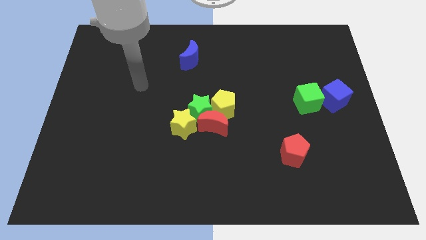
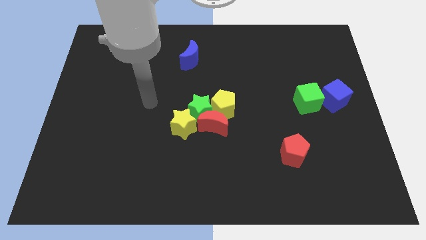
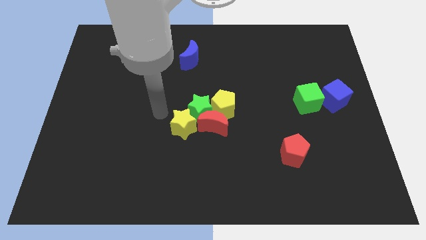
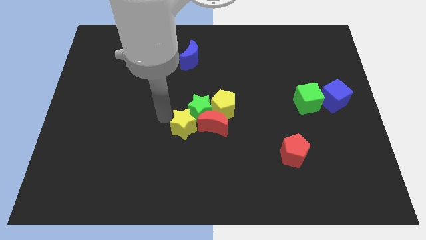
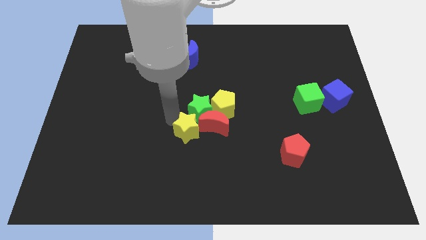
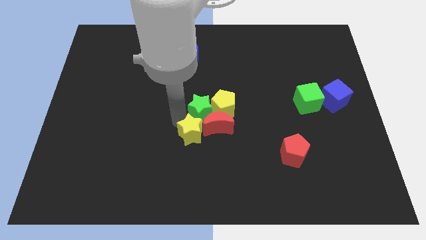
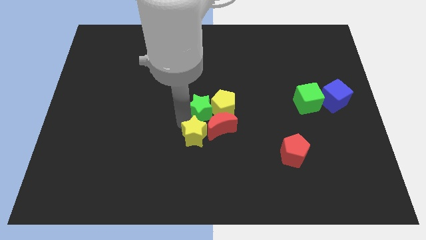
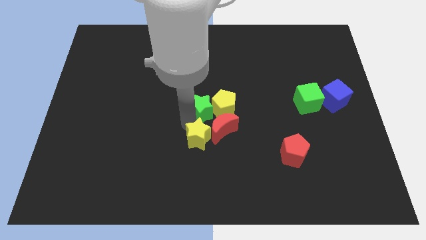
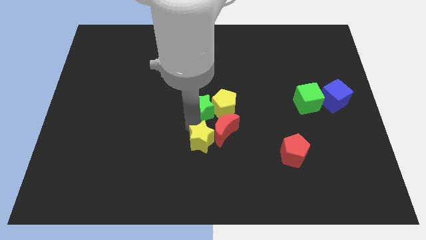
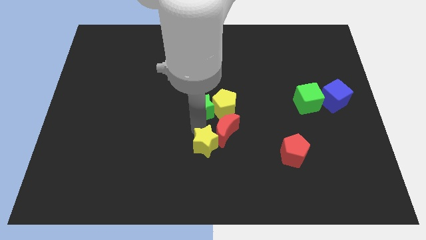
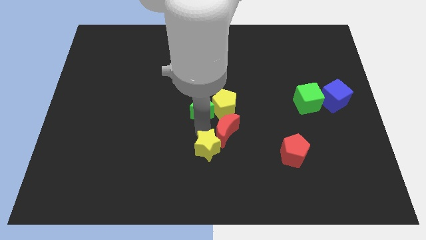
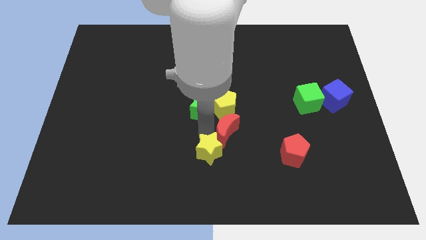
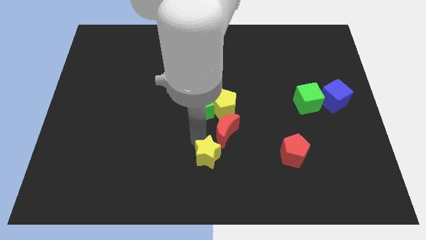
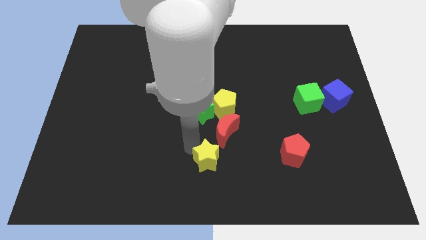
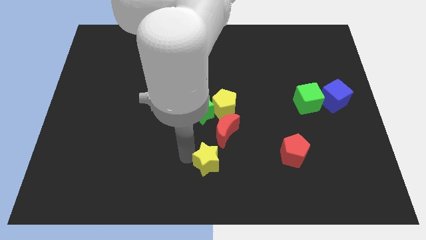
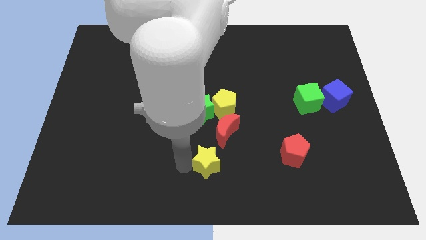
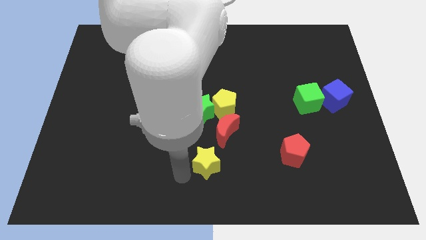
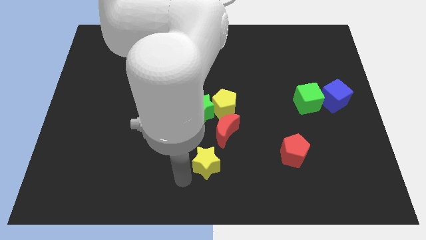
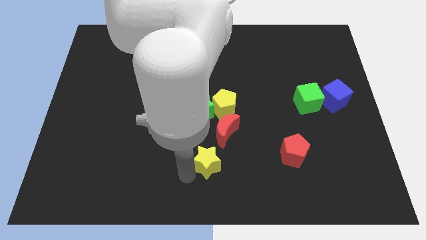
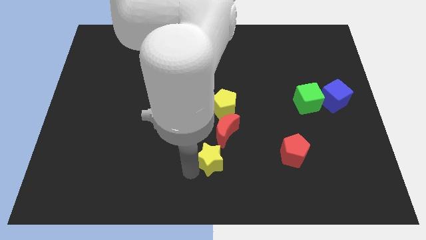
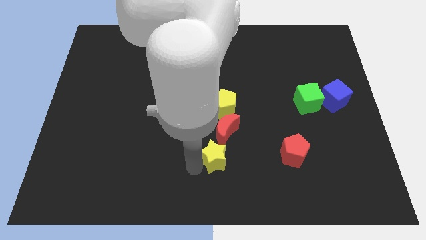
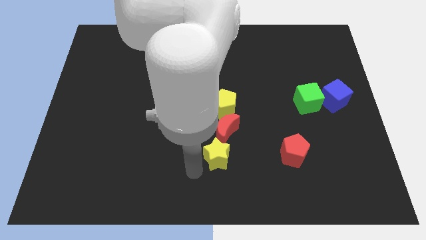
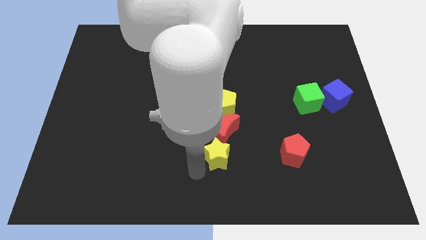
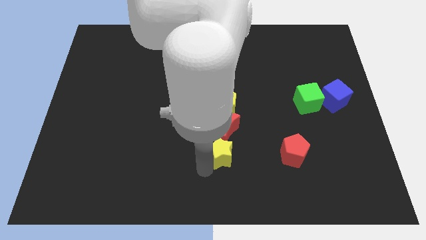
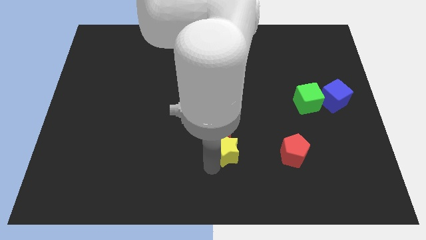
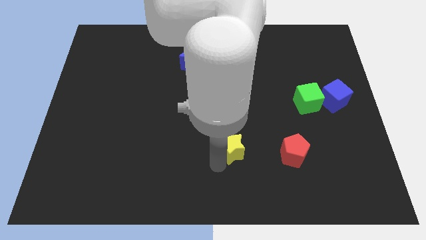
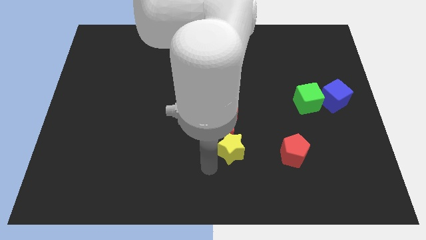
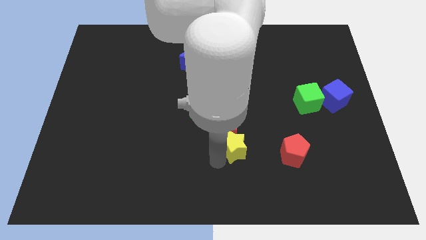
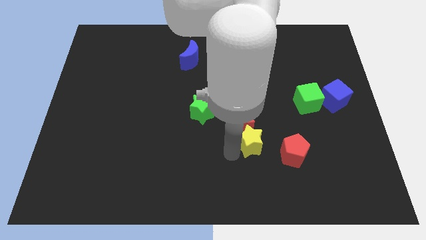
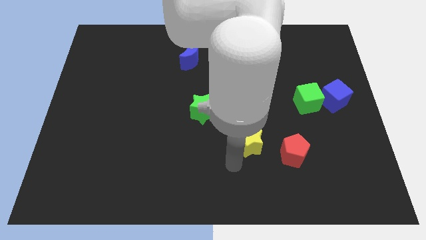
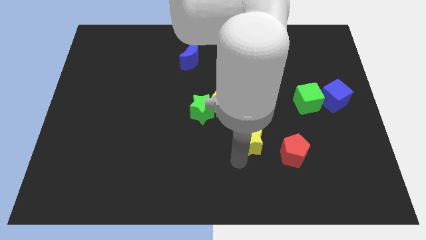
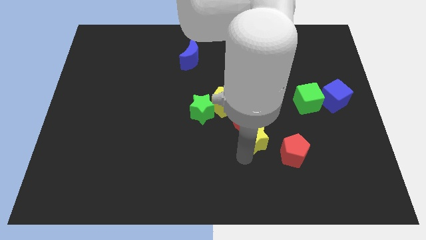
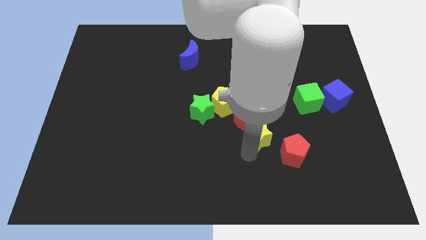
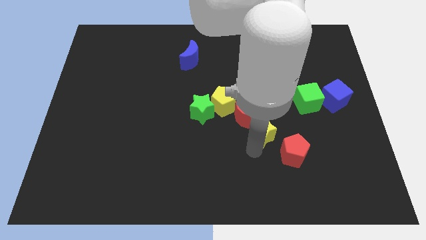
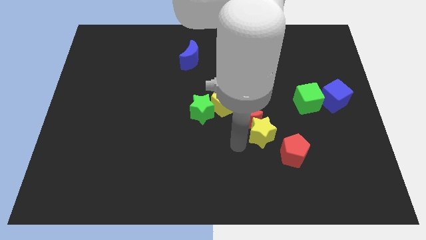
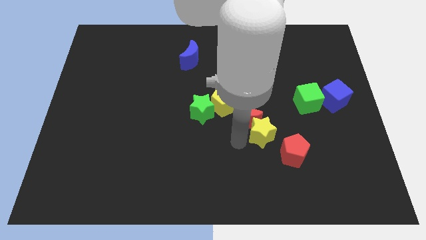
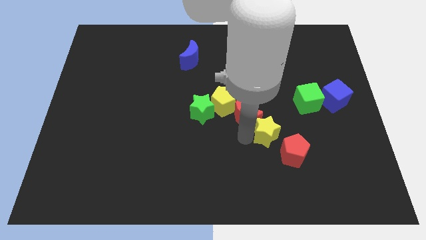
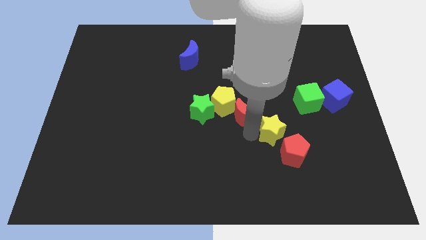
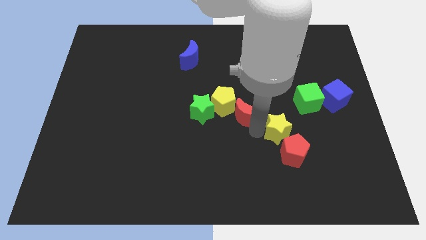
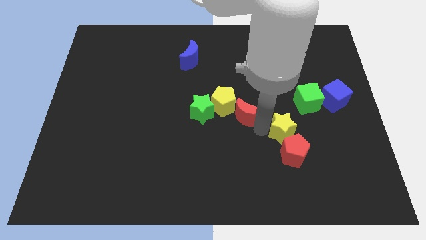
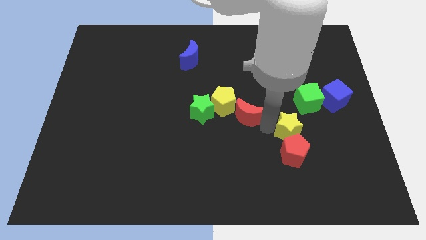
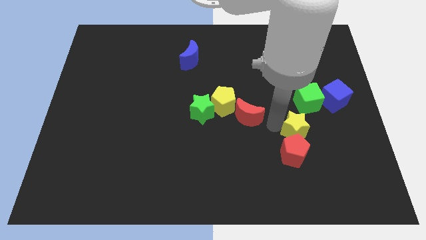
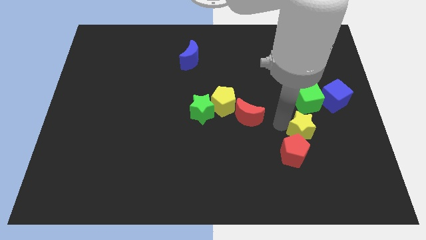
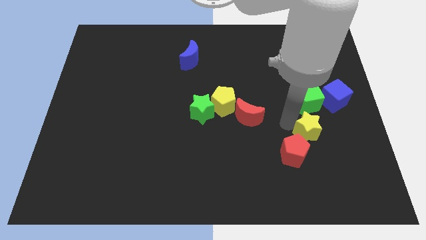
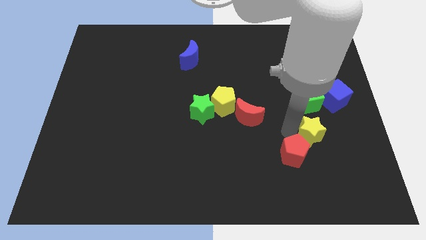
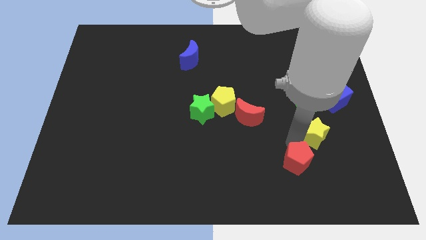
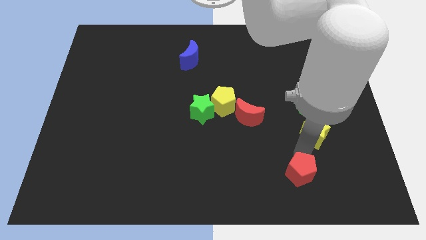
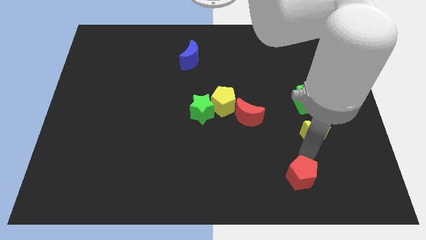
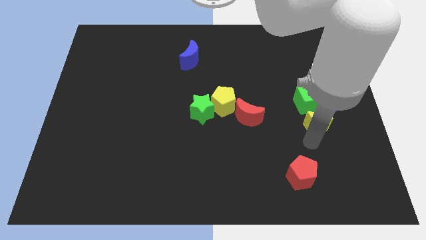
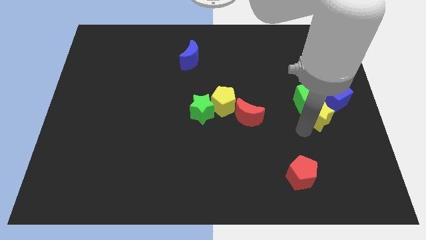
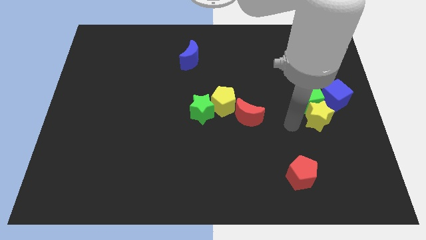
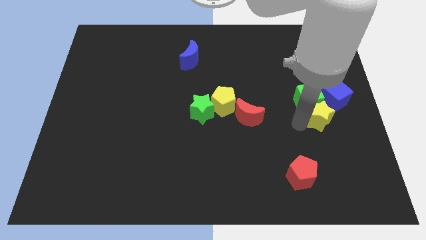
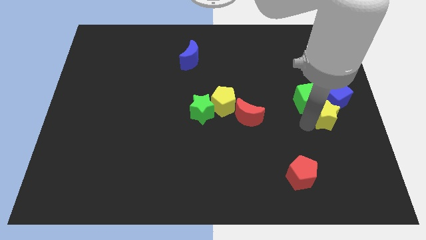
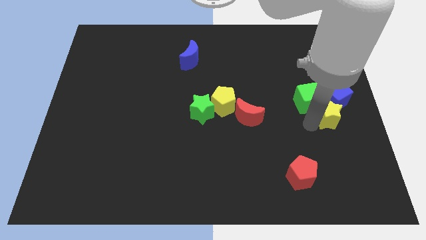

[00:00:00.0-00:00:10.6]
slide the yellow star to the right side of the board
